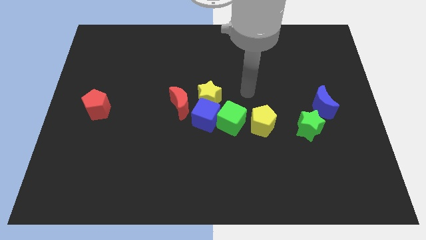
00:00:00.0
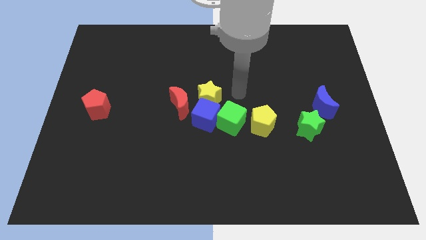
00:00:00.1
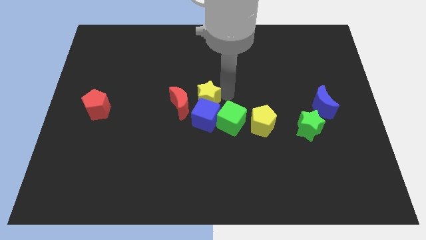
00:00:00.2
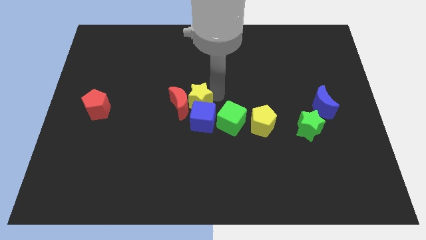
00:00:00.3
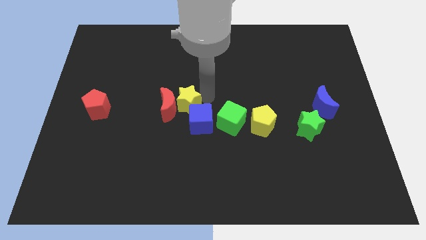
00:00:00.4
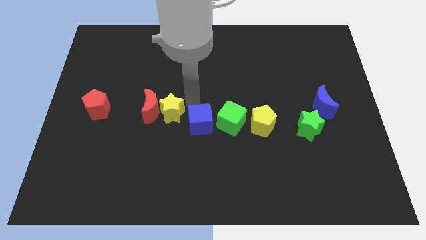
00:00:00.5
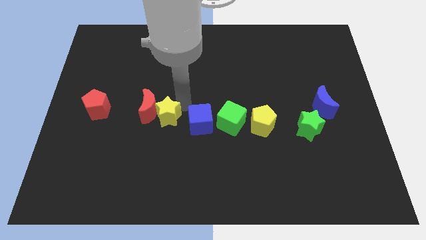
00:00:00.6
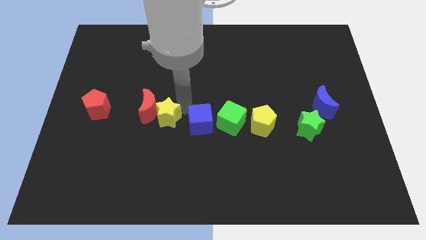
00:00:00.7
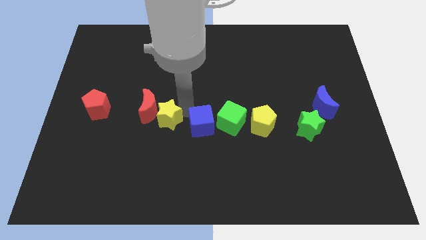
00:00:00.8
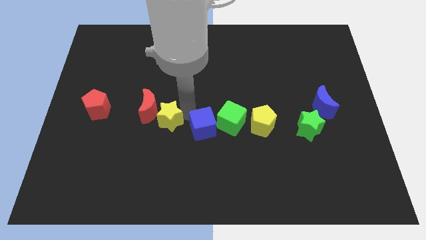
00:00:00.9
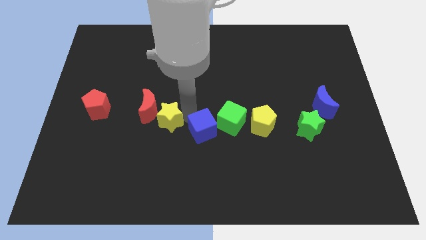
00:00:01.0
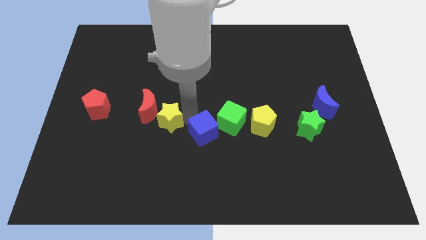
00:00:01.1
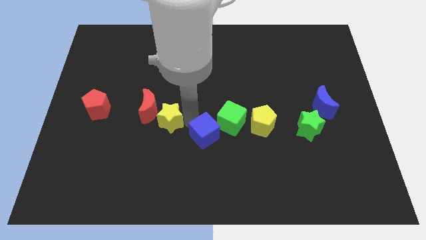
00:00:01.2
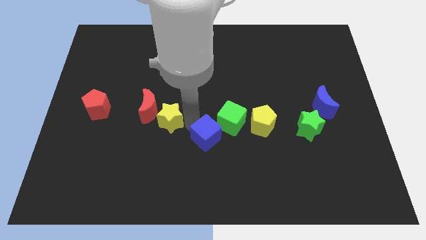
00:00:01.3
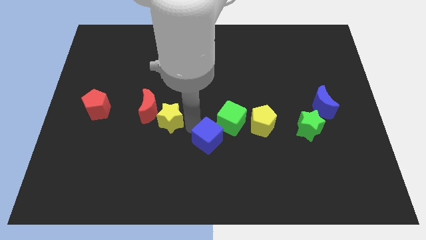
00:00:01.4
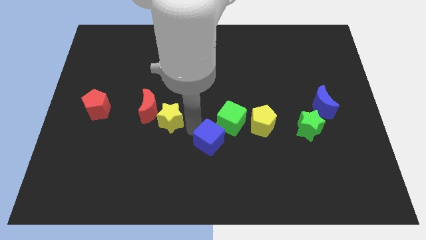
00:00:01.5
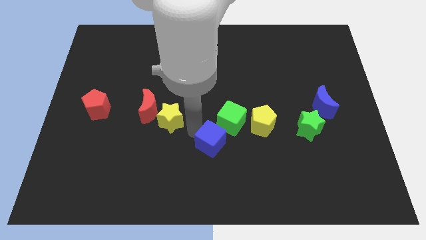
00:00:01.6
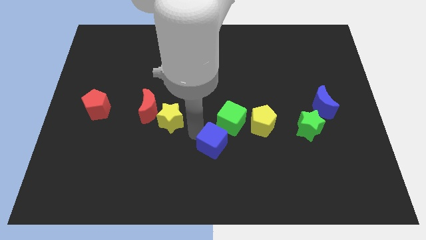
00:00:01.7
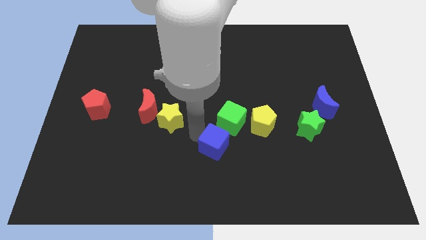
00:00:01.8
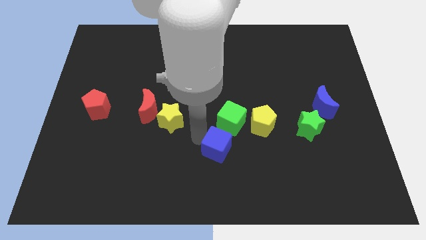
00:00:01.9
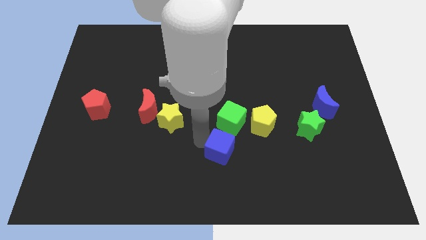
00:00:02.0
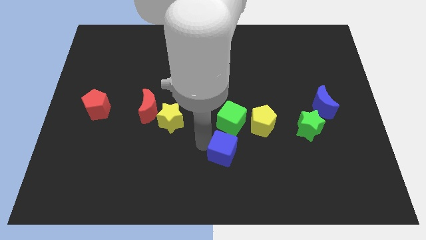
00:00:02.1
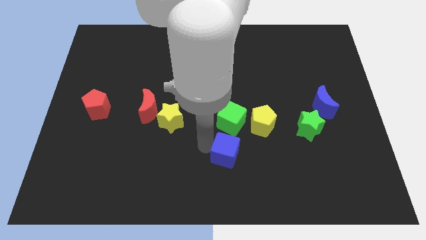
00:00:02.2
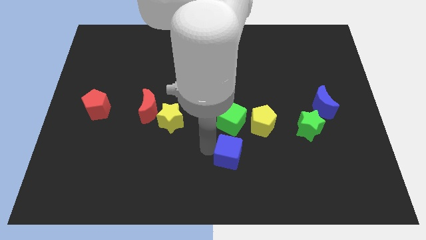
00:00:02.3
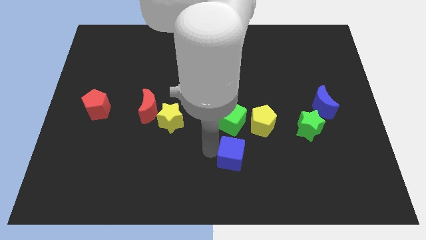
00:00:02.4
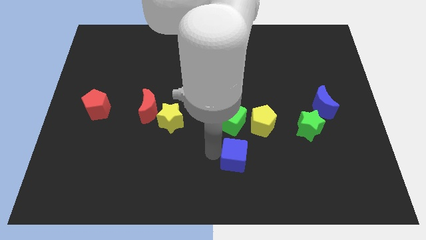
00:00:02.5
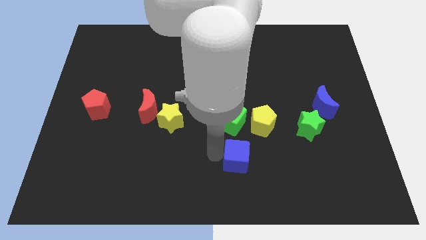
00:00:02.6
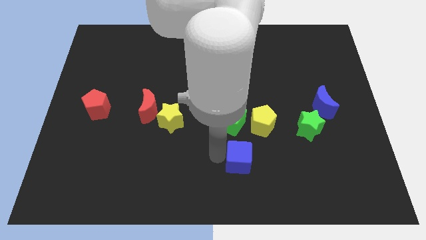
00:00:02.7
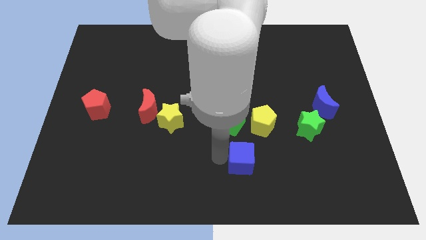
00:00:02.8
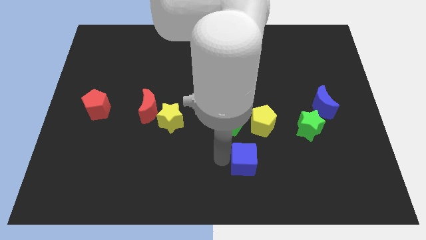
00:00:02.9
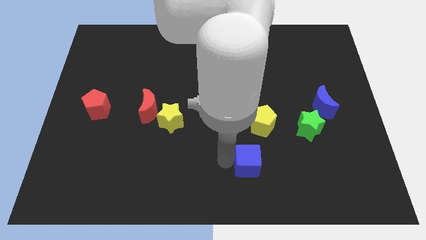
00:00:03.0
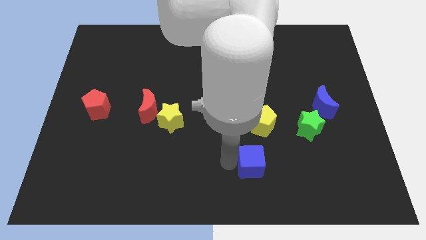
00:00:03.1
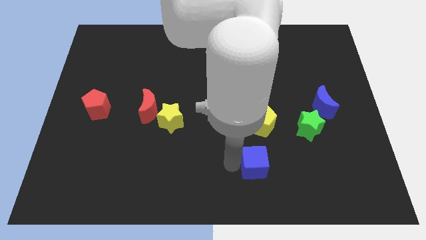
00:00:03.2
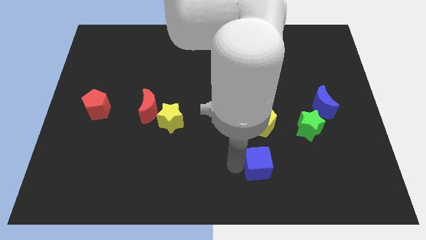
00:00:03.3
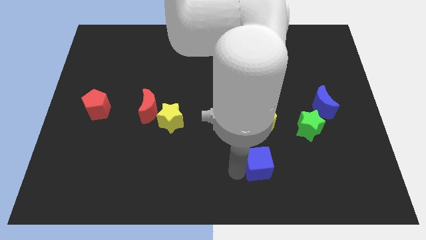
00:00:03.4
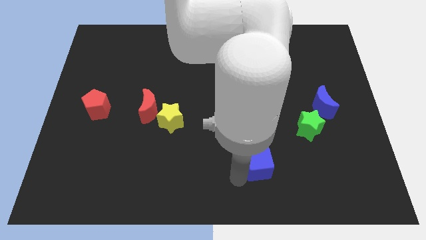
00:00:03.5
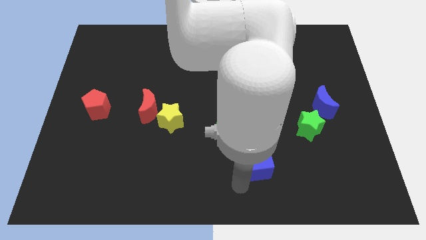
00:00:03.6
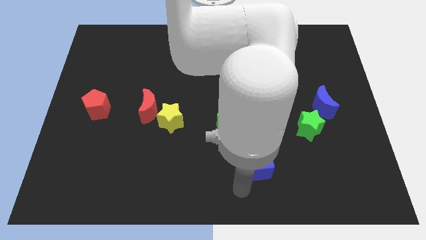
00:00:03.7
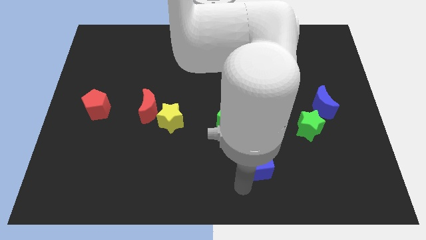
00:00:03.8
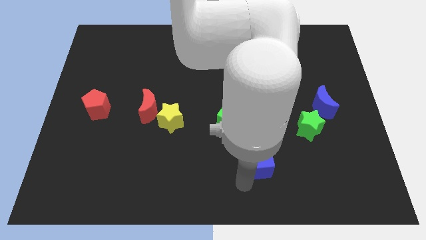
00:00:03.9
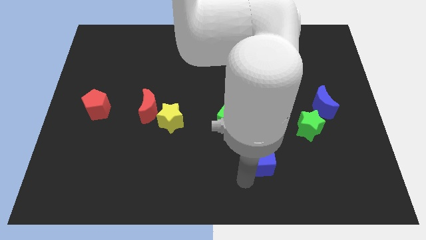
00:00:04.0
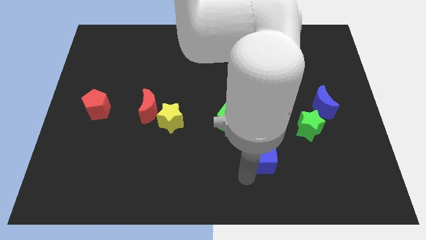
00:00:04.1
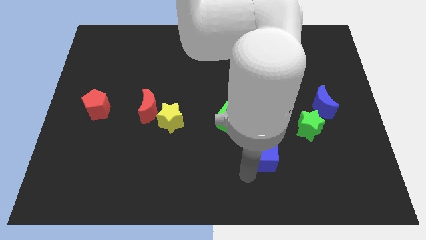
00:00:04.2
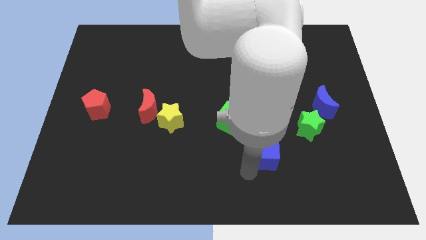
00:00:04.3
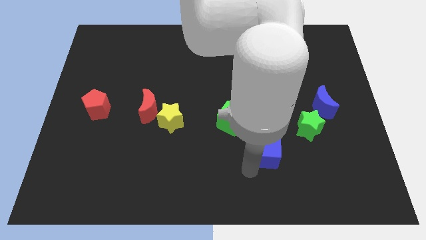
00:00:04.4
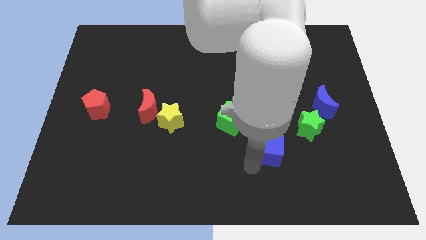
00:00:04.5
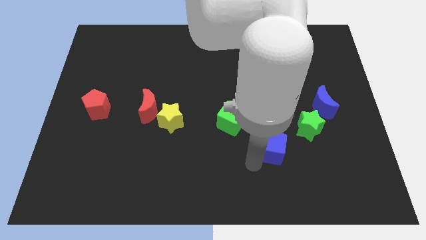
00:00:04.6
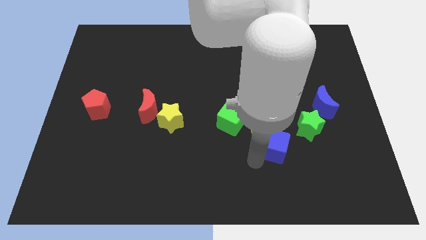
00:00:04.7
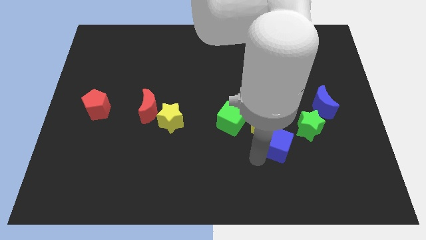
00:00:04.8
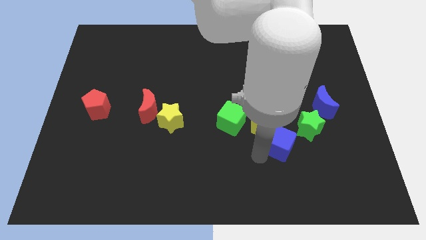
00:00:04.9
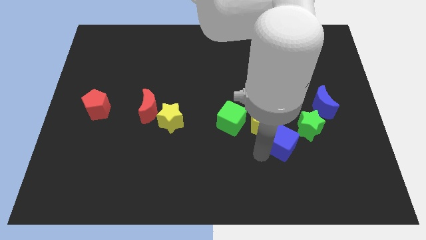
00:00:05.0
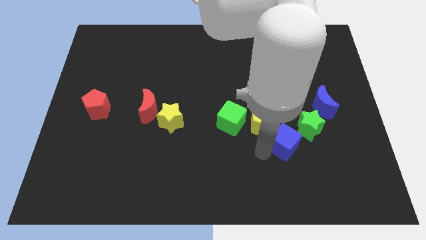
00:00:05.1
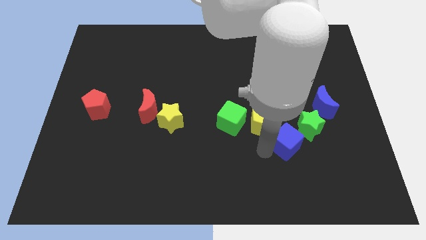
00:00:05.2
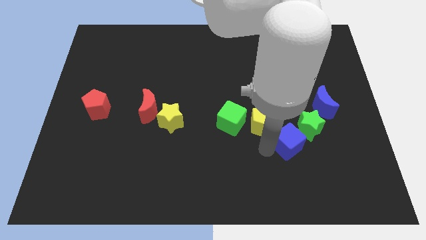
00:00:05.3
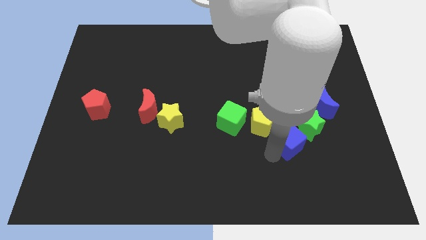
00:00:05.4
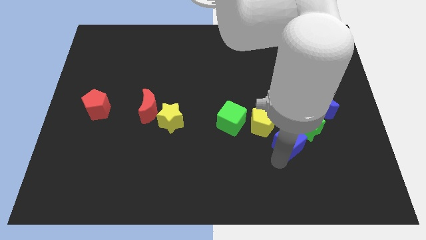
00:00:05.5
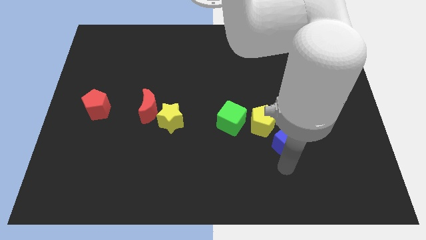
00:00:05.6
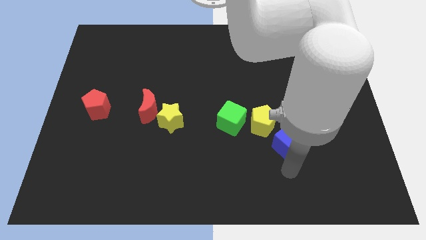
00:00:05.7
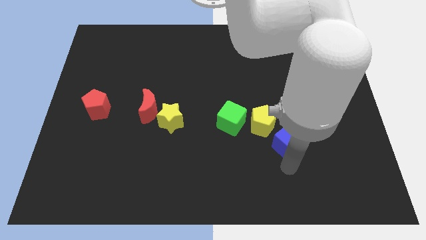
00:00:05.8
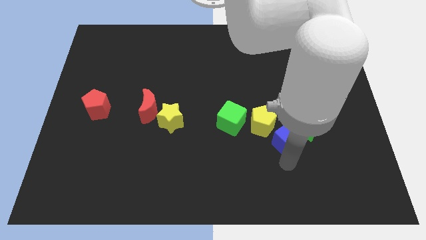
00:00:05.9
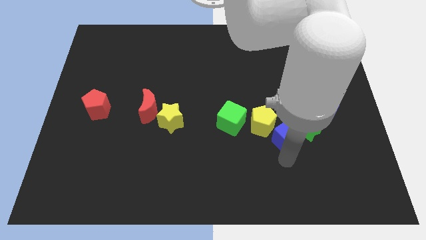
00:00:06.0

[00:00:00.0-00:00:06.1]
put the blue cube to the bottom left side of the blue moon

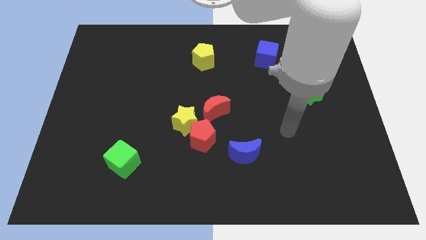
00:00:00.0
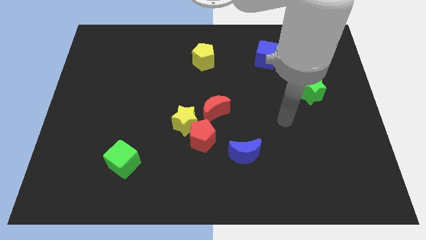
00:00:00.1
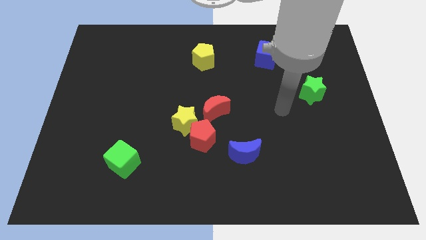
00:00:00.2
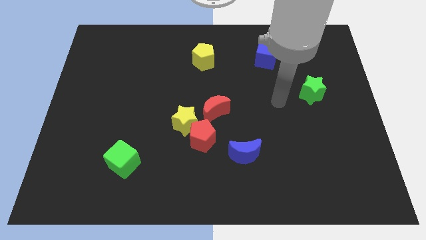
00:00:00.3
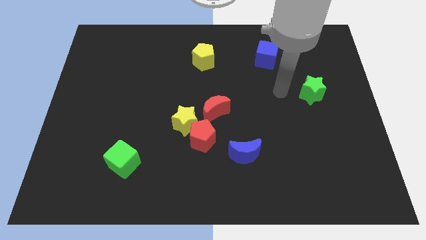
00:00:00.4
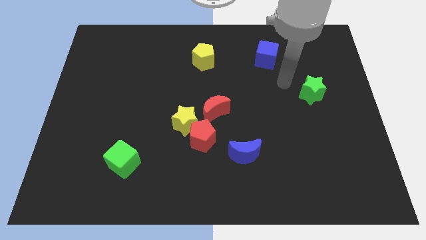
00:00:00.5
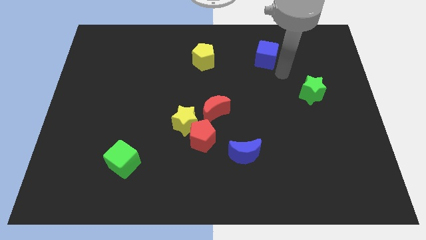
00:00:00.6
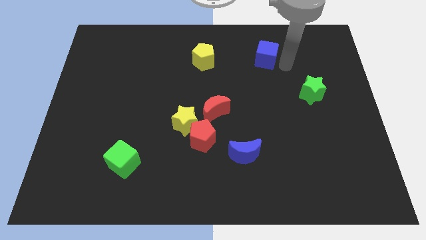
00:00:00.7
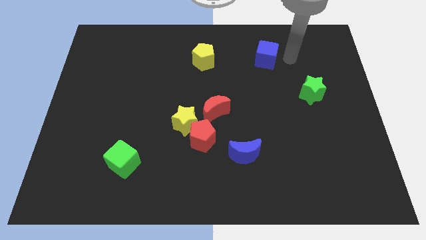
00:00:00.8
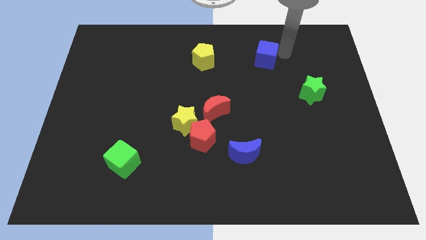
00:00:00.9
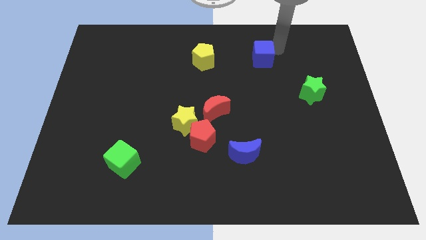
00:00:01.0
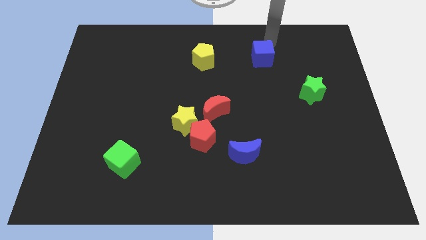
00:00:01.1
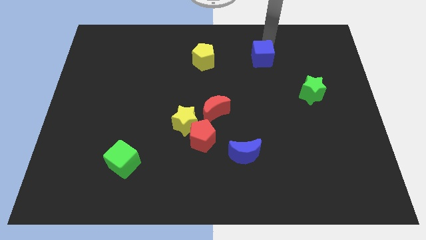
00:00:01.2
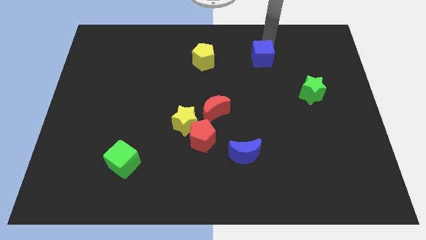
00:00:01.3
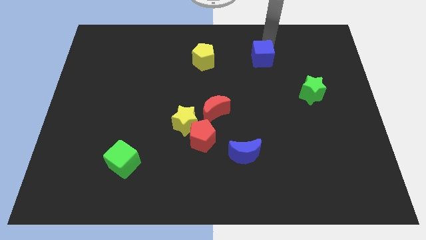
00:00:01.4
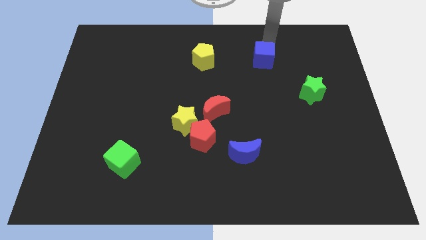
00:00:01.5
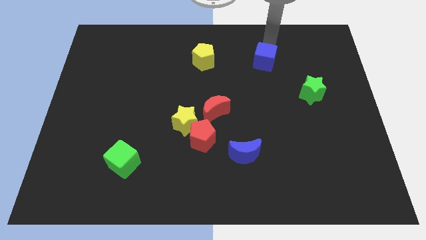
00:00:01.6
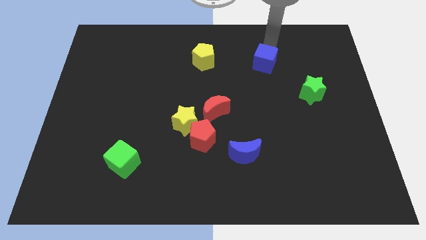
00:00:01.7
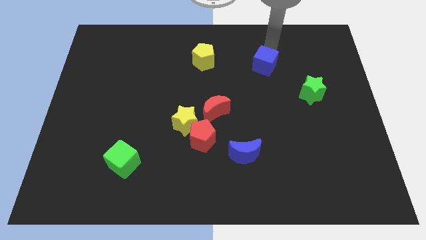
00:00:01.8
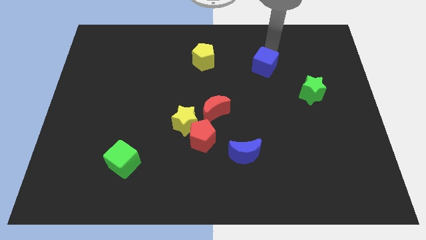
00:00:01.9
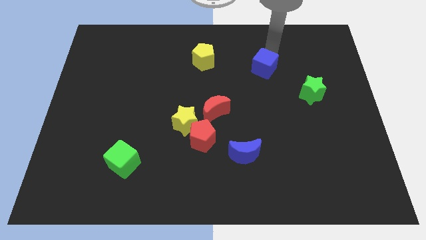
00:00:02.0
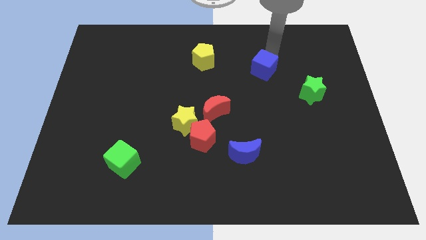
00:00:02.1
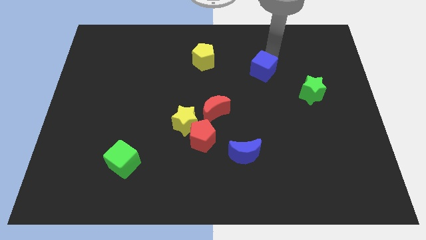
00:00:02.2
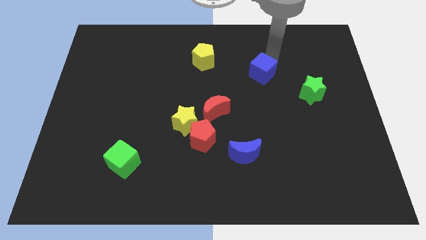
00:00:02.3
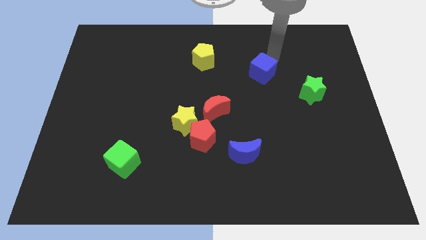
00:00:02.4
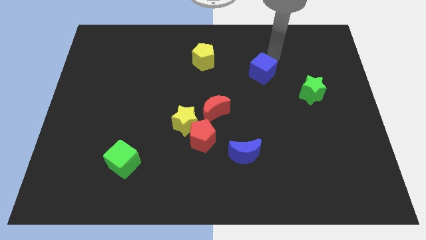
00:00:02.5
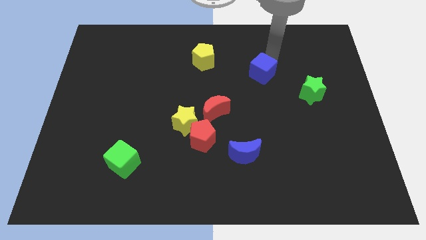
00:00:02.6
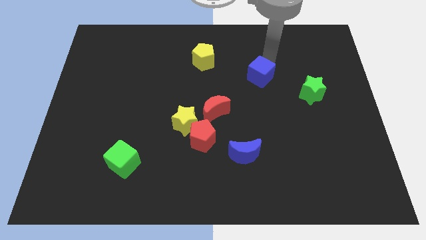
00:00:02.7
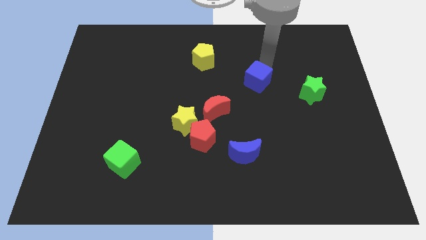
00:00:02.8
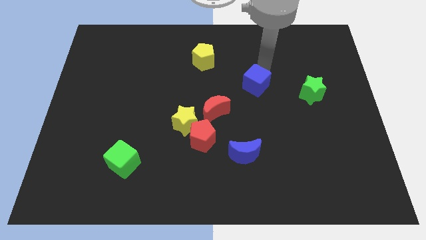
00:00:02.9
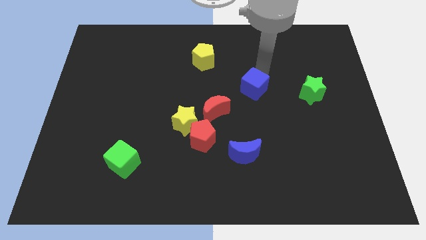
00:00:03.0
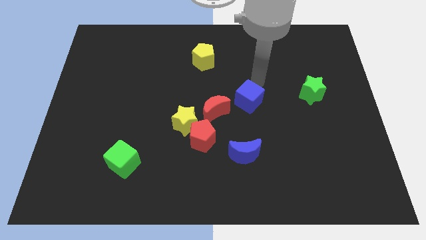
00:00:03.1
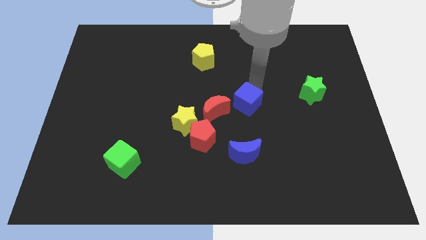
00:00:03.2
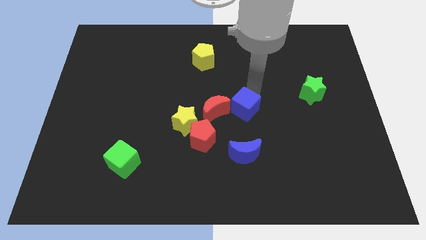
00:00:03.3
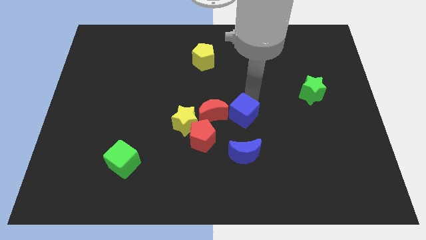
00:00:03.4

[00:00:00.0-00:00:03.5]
move the blue cube to the top right side of the red pentagon
